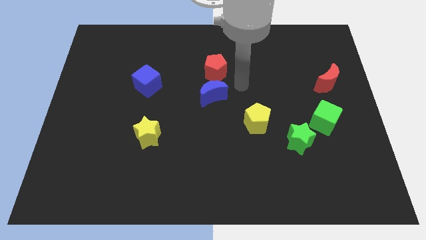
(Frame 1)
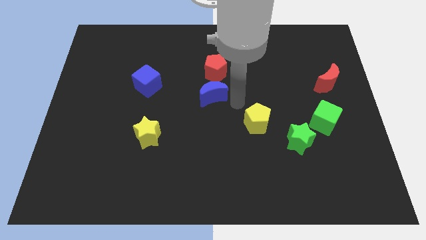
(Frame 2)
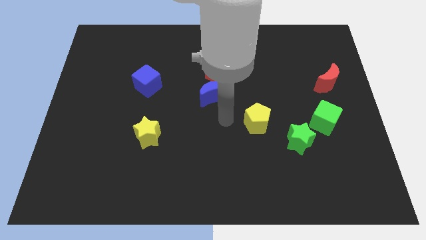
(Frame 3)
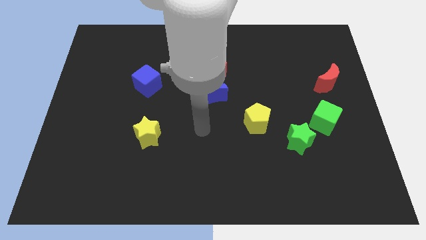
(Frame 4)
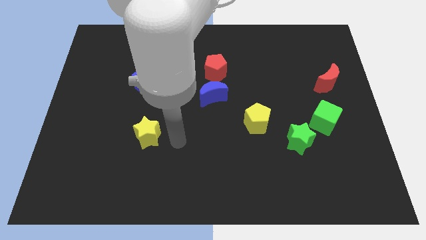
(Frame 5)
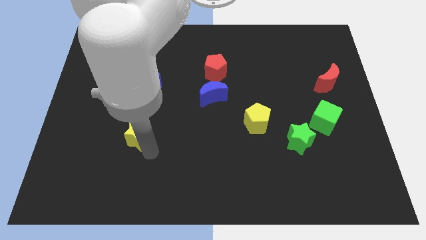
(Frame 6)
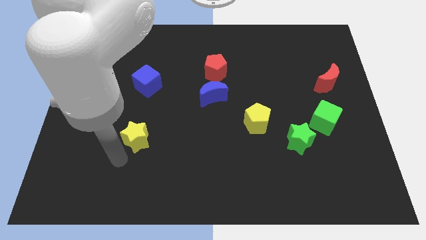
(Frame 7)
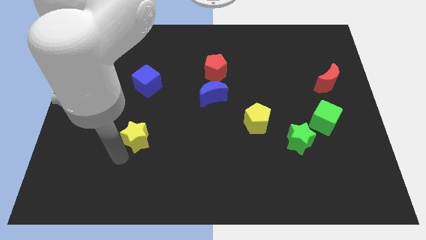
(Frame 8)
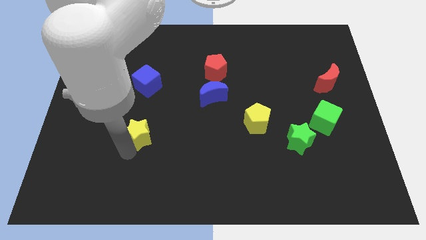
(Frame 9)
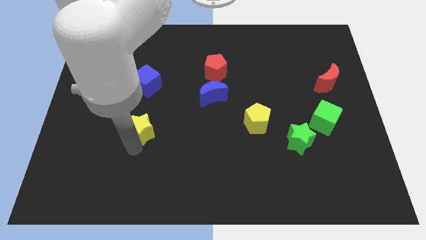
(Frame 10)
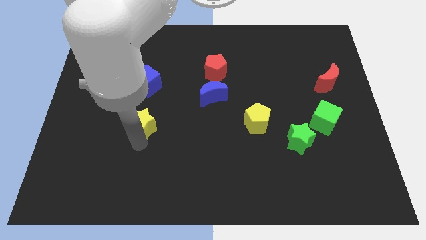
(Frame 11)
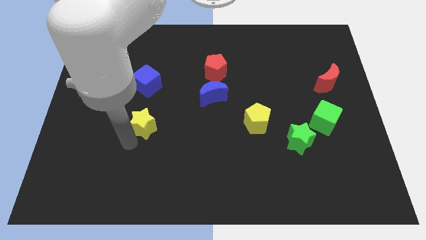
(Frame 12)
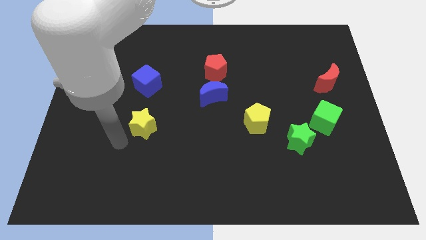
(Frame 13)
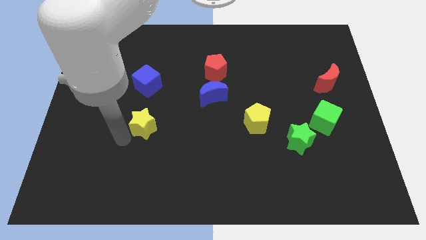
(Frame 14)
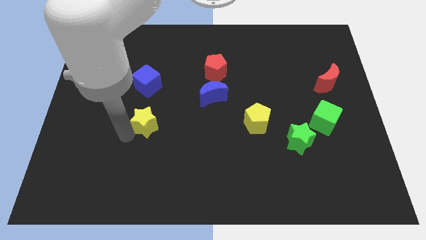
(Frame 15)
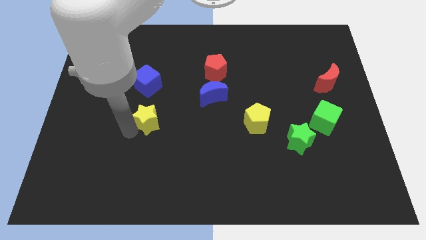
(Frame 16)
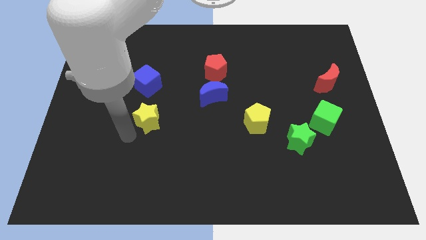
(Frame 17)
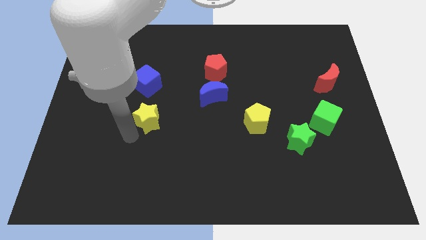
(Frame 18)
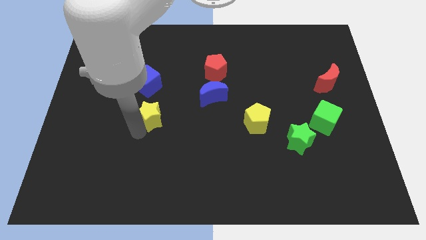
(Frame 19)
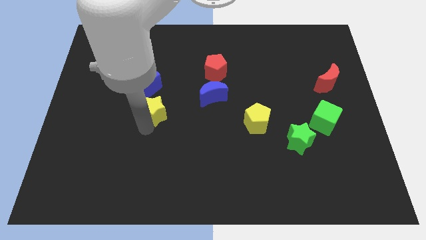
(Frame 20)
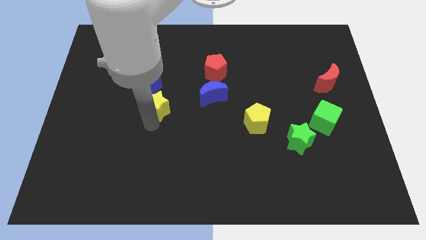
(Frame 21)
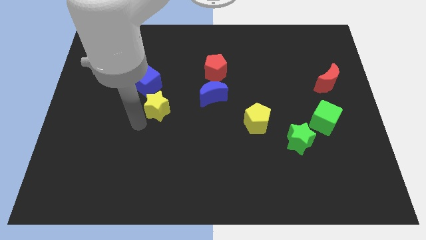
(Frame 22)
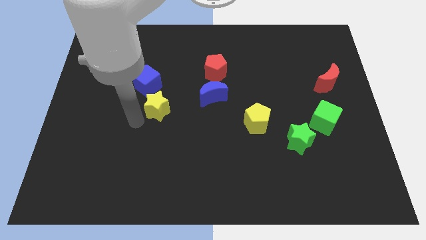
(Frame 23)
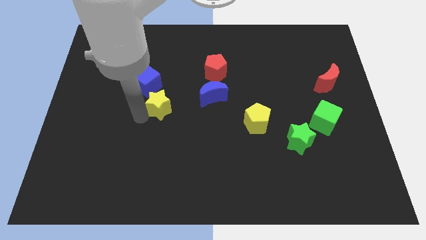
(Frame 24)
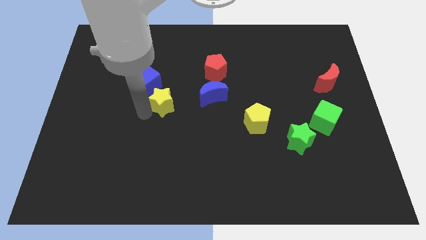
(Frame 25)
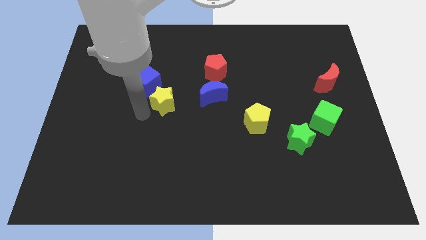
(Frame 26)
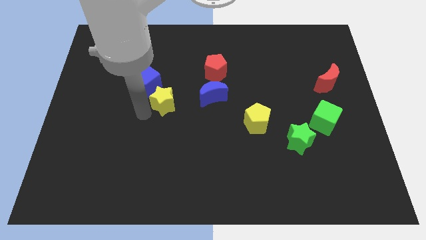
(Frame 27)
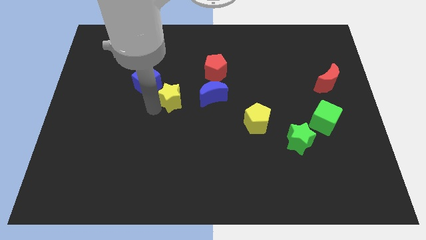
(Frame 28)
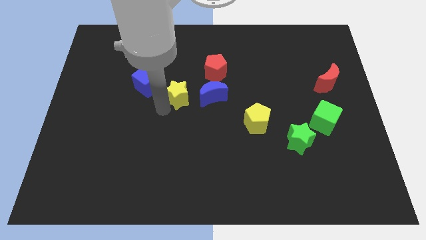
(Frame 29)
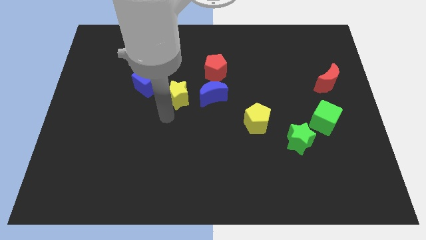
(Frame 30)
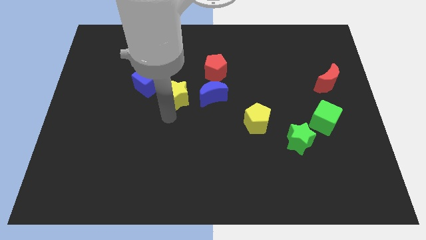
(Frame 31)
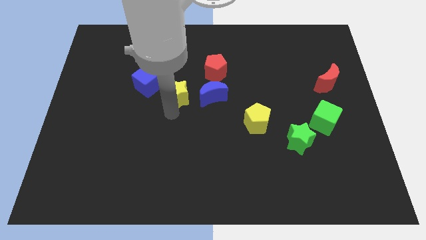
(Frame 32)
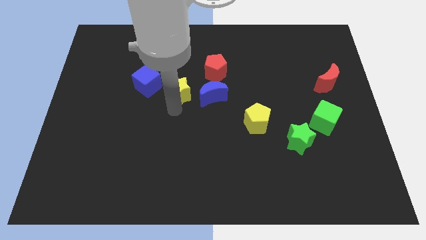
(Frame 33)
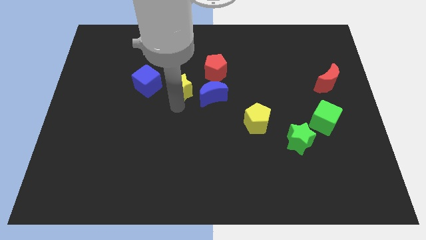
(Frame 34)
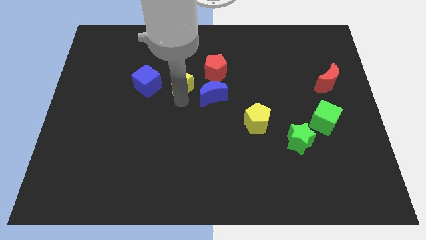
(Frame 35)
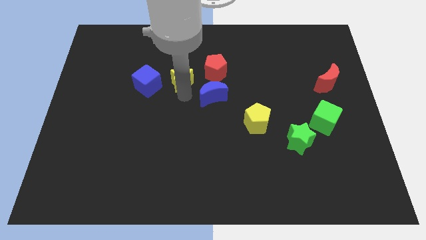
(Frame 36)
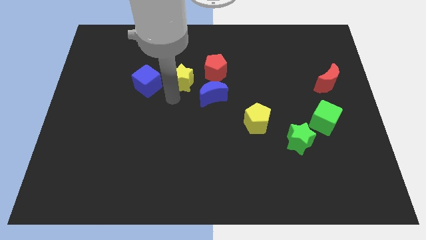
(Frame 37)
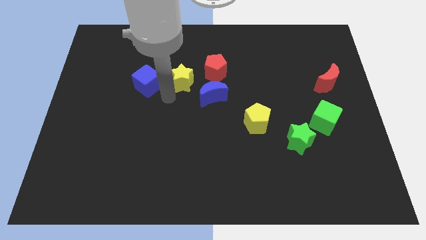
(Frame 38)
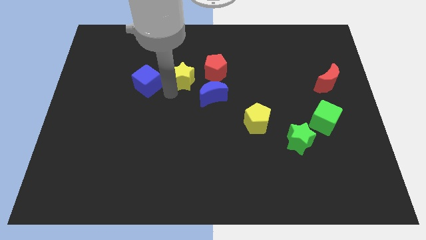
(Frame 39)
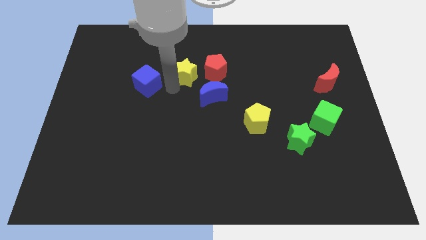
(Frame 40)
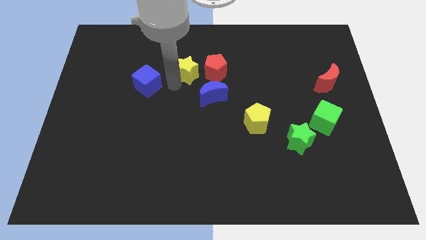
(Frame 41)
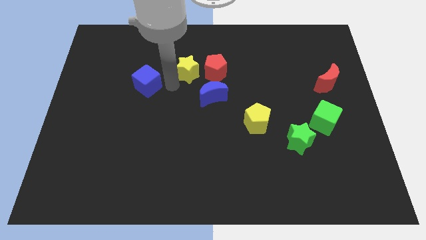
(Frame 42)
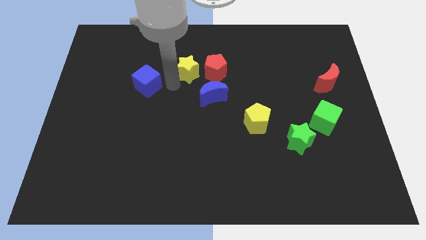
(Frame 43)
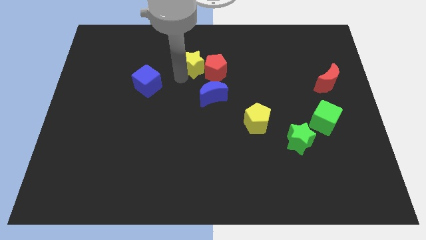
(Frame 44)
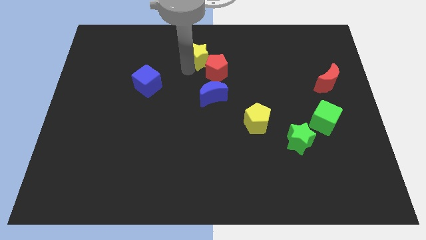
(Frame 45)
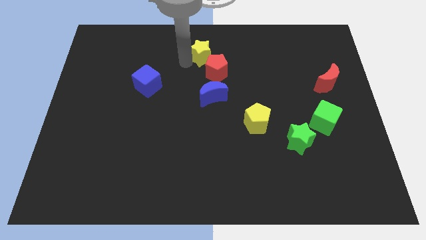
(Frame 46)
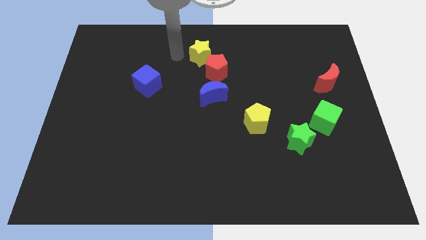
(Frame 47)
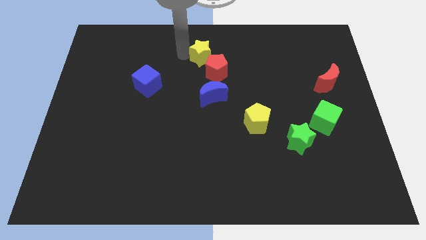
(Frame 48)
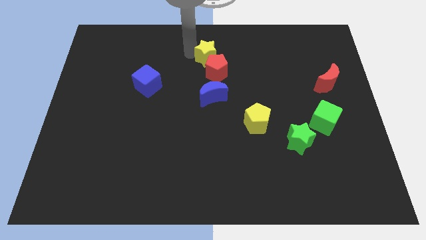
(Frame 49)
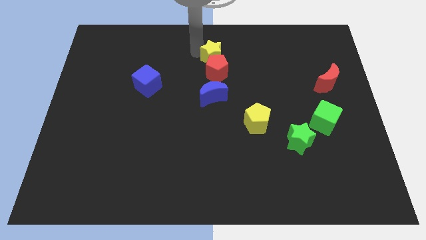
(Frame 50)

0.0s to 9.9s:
slide the yellow star to the top right side of the red pentagon

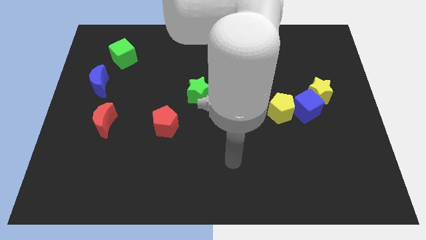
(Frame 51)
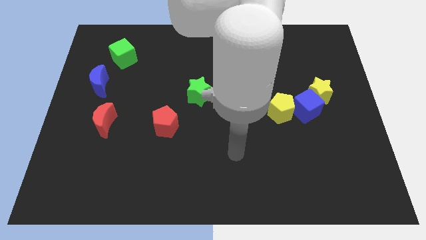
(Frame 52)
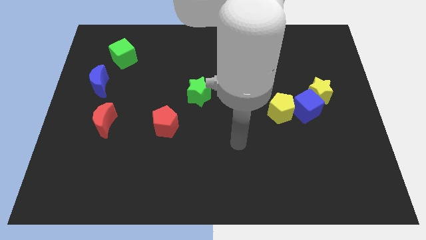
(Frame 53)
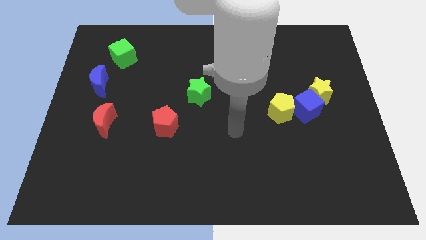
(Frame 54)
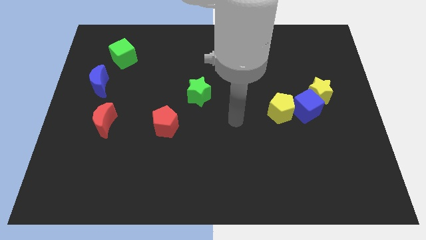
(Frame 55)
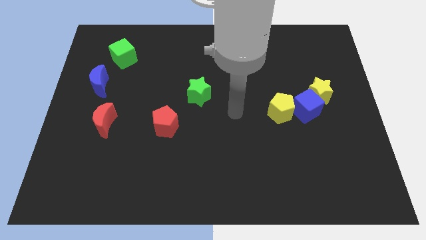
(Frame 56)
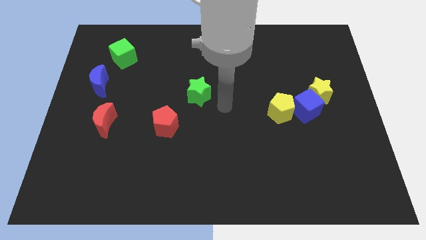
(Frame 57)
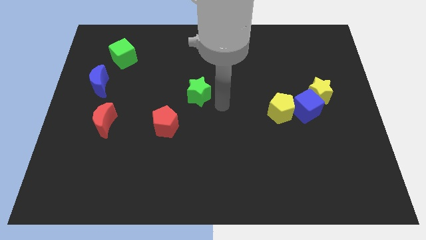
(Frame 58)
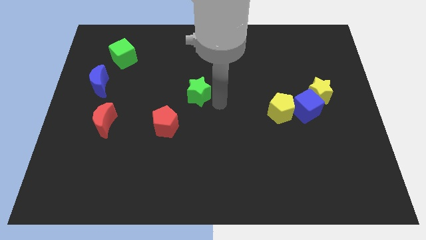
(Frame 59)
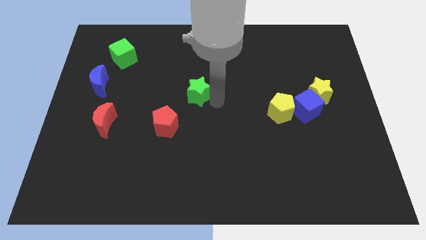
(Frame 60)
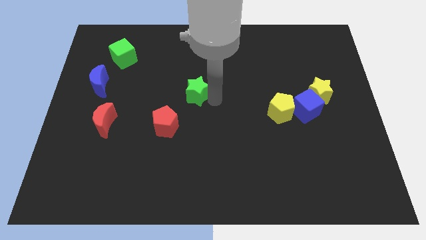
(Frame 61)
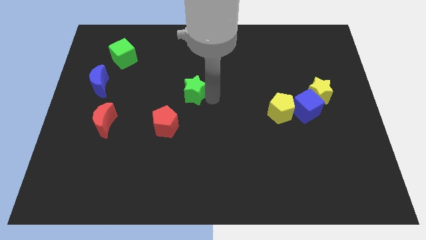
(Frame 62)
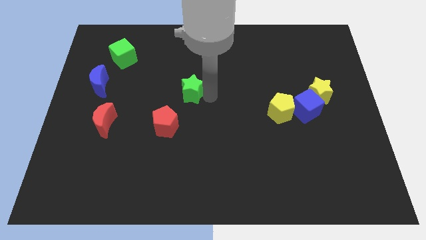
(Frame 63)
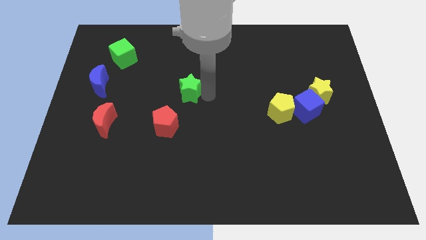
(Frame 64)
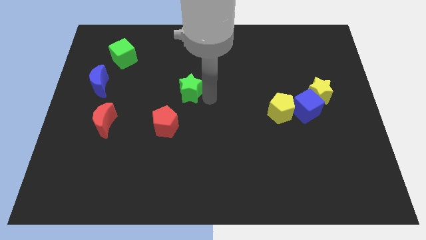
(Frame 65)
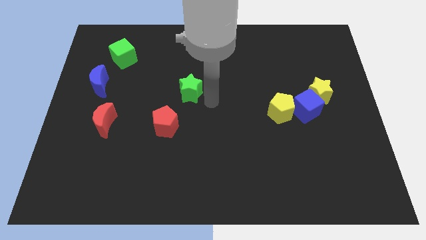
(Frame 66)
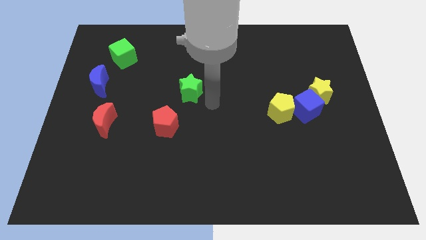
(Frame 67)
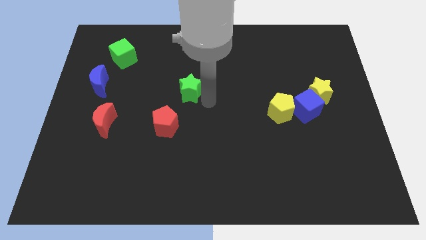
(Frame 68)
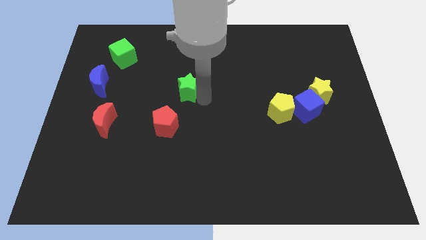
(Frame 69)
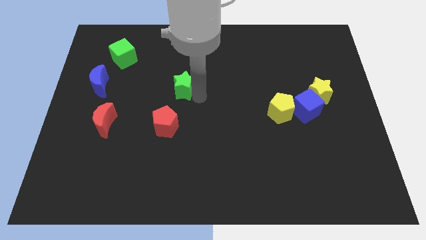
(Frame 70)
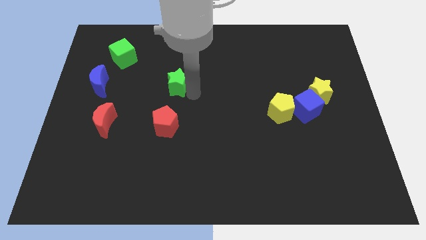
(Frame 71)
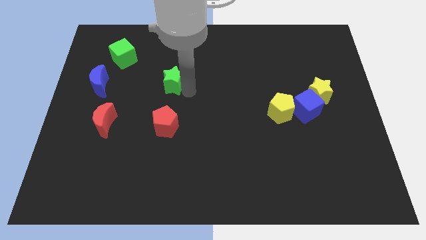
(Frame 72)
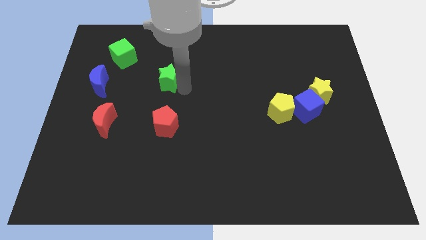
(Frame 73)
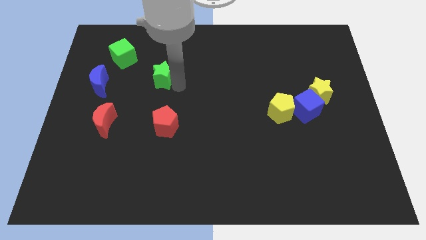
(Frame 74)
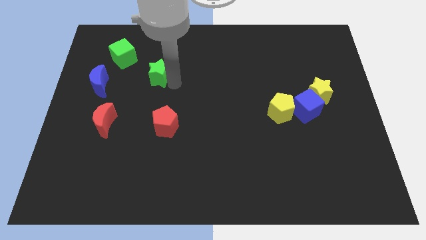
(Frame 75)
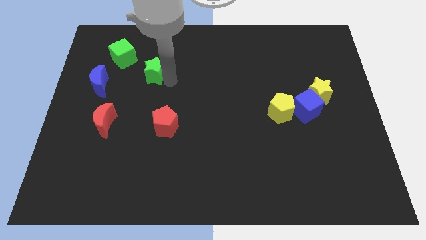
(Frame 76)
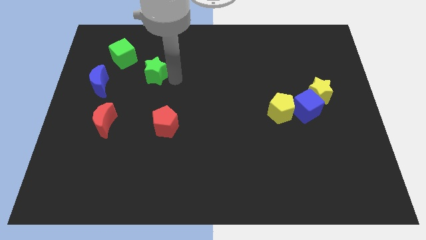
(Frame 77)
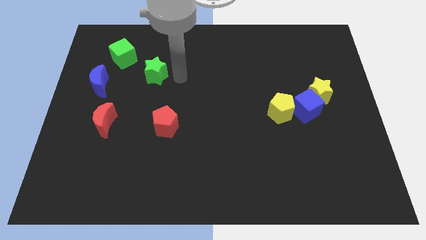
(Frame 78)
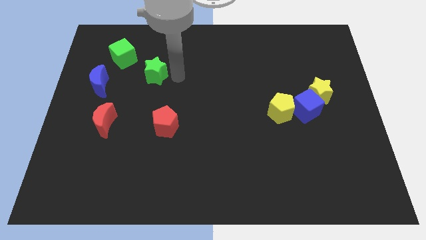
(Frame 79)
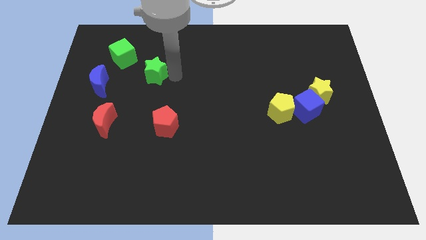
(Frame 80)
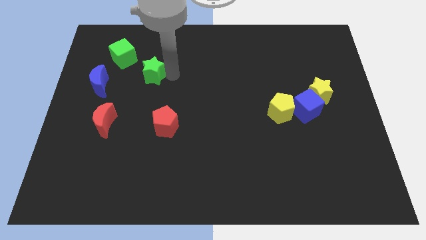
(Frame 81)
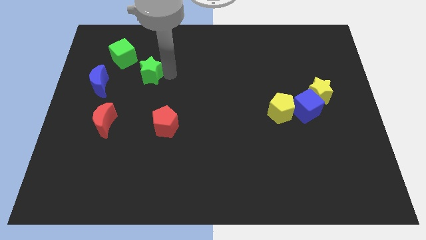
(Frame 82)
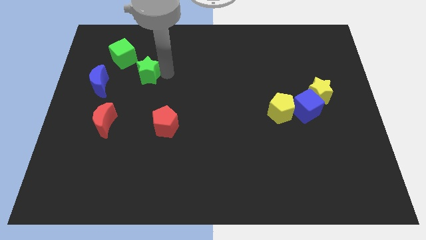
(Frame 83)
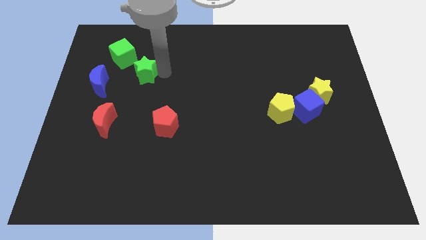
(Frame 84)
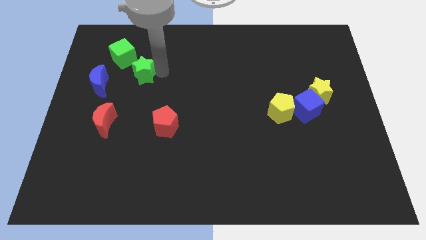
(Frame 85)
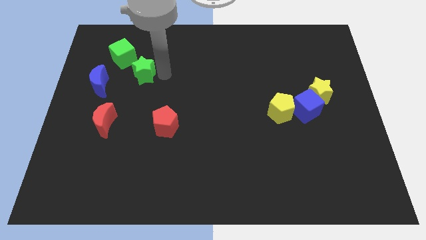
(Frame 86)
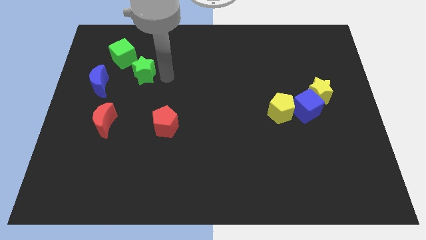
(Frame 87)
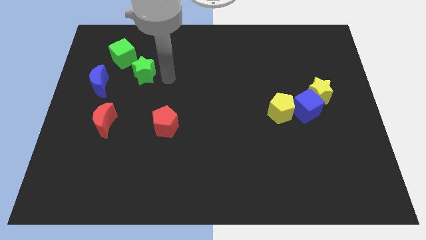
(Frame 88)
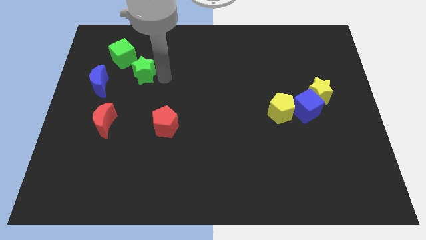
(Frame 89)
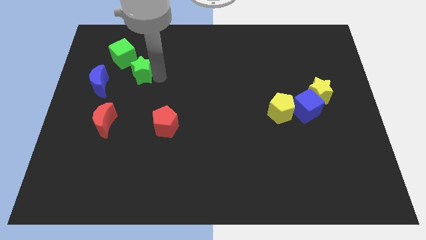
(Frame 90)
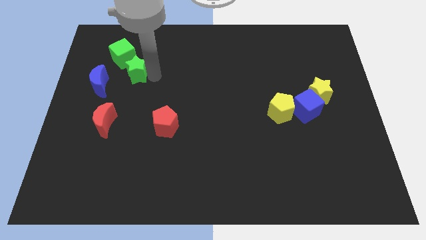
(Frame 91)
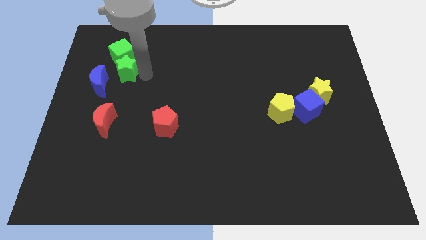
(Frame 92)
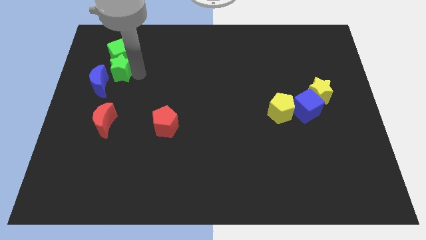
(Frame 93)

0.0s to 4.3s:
move the green star above the blue moon
